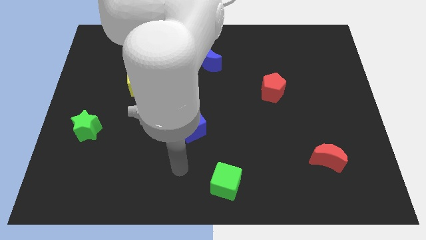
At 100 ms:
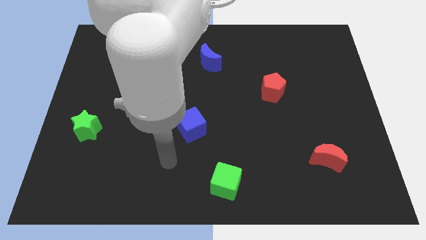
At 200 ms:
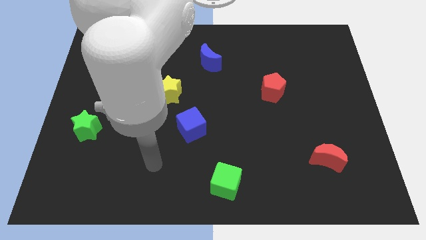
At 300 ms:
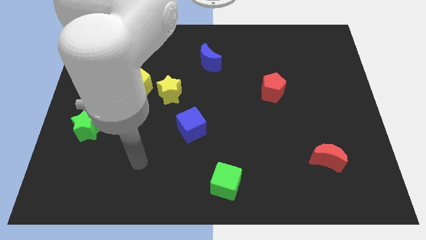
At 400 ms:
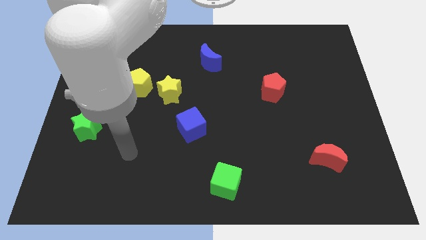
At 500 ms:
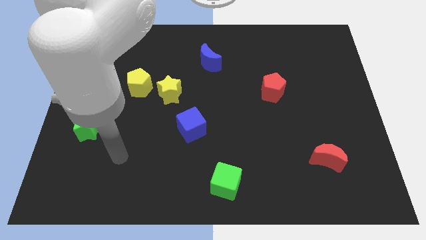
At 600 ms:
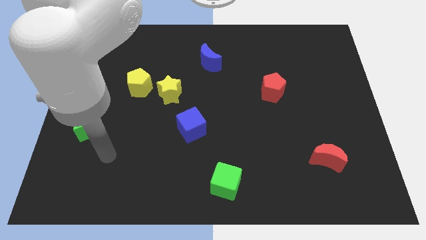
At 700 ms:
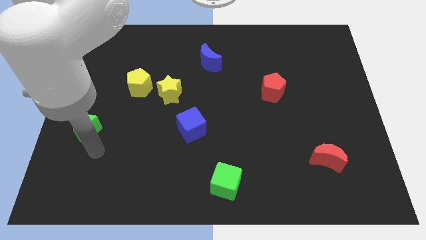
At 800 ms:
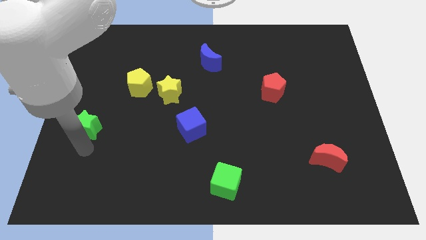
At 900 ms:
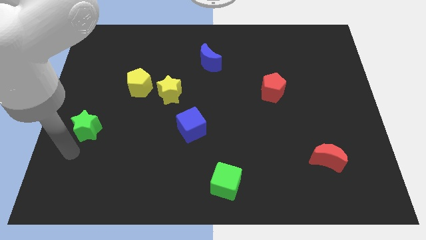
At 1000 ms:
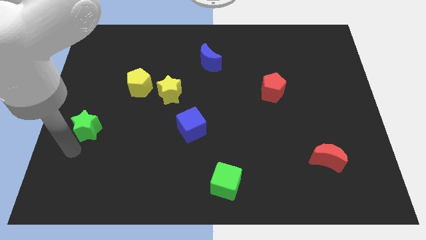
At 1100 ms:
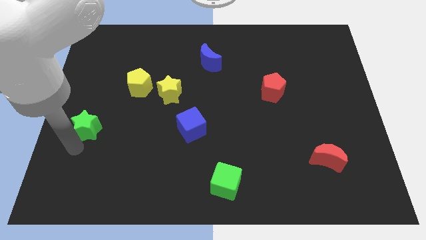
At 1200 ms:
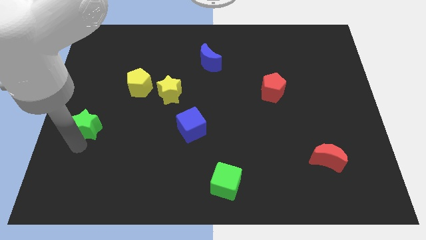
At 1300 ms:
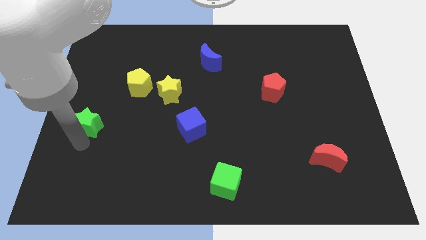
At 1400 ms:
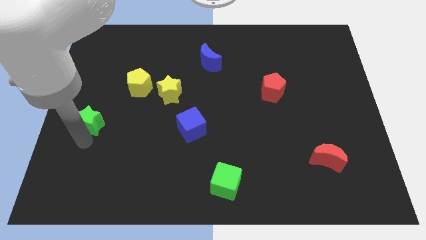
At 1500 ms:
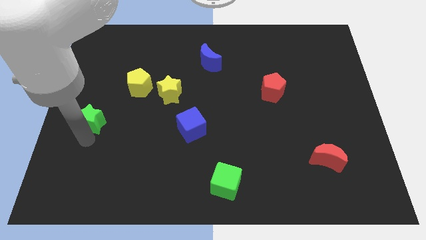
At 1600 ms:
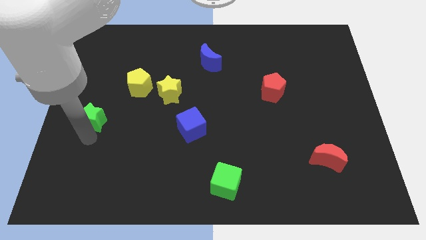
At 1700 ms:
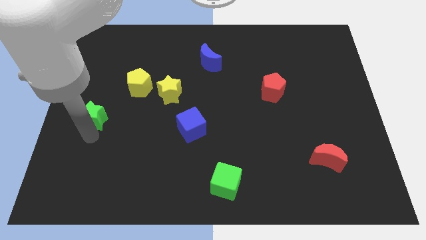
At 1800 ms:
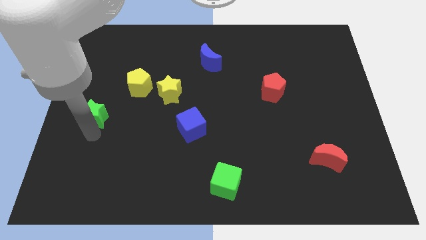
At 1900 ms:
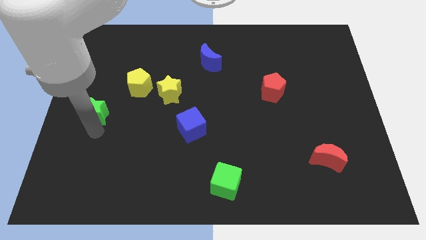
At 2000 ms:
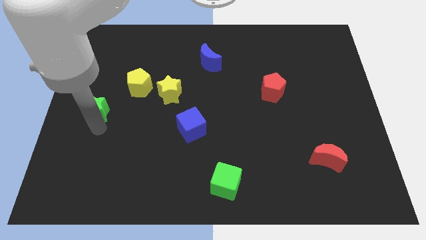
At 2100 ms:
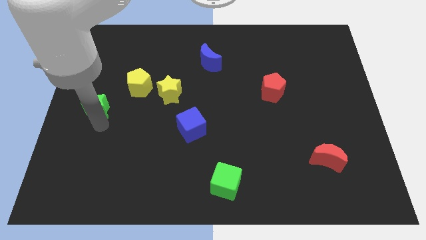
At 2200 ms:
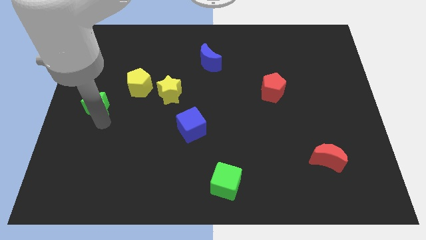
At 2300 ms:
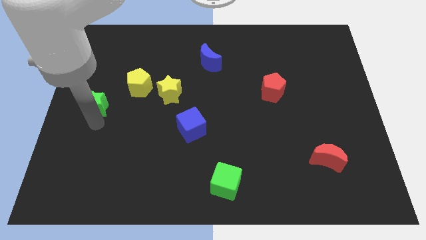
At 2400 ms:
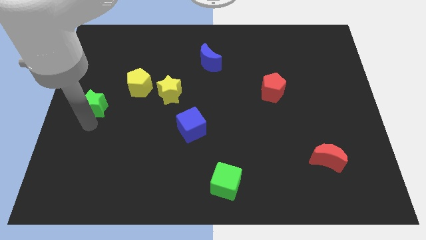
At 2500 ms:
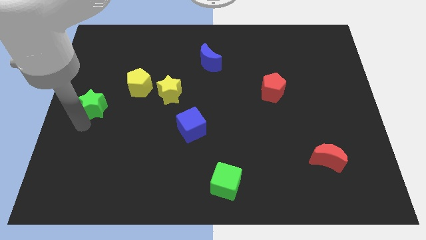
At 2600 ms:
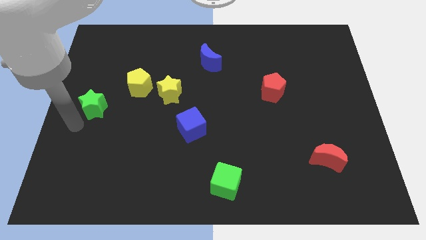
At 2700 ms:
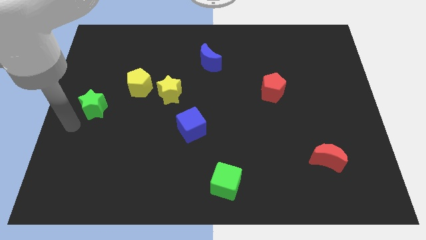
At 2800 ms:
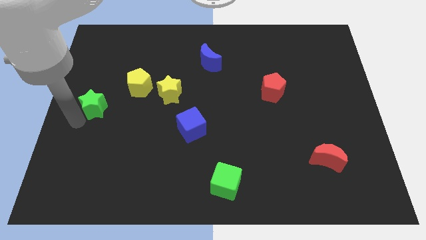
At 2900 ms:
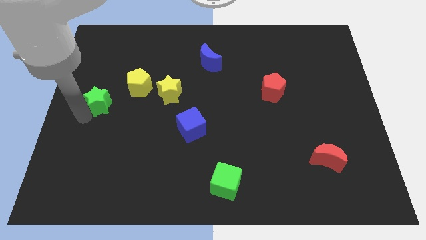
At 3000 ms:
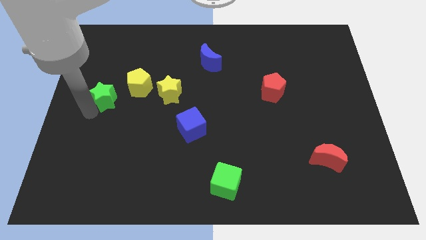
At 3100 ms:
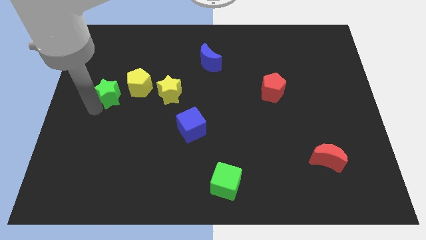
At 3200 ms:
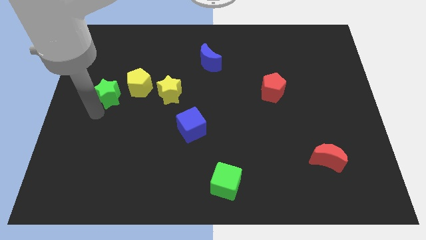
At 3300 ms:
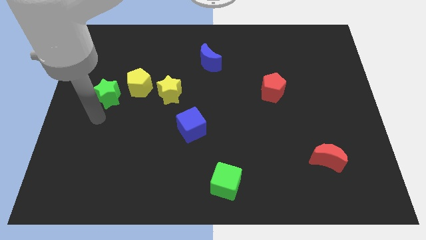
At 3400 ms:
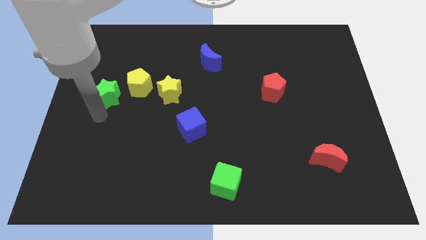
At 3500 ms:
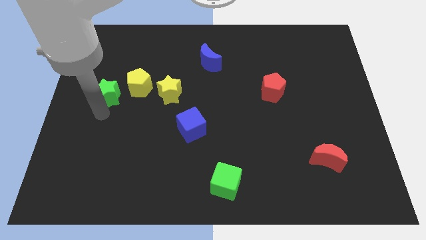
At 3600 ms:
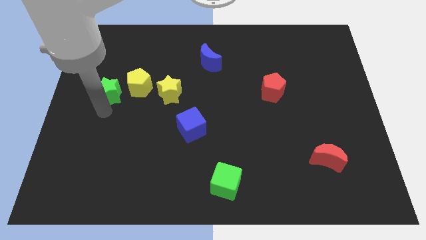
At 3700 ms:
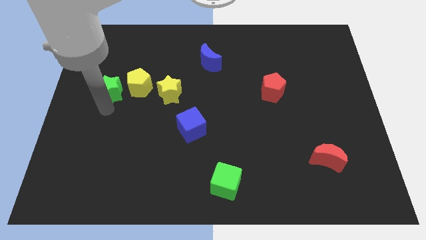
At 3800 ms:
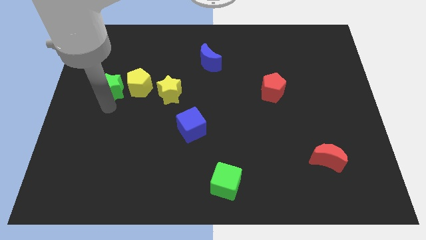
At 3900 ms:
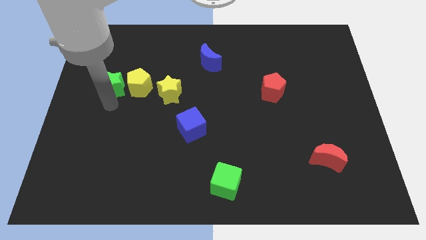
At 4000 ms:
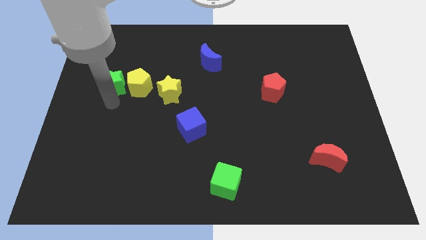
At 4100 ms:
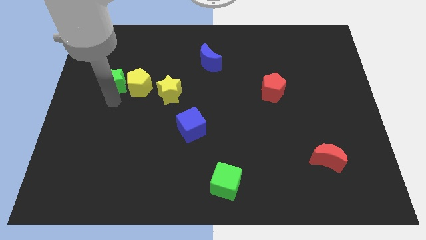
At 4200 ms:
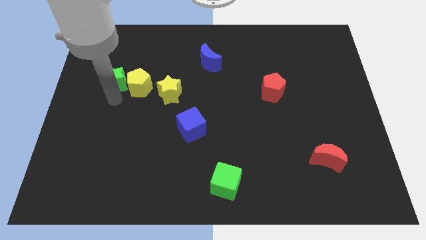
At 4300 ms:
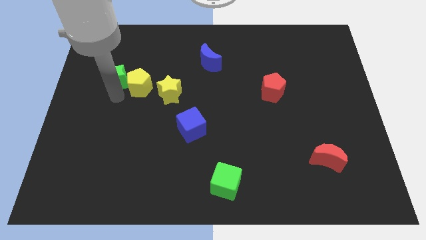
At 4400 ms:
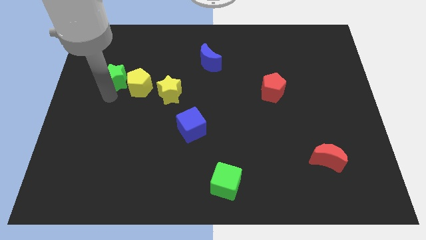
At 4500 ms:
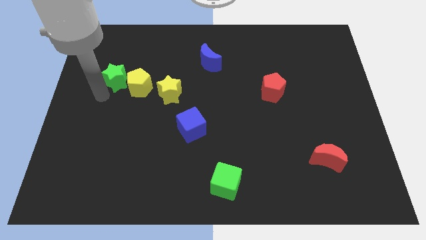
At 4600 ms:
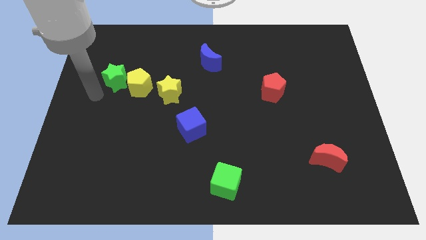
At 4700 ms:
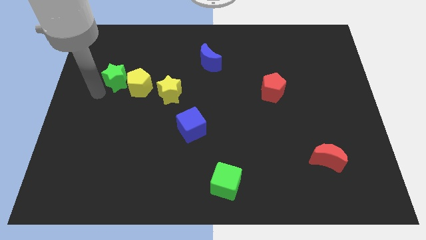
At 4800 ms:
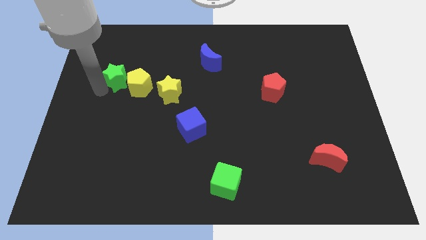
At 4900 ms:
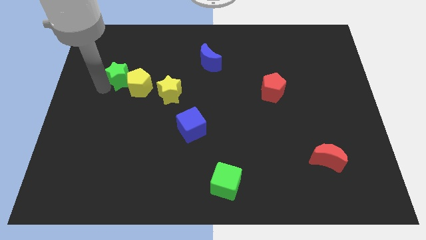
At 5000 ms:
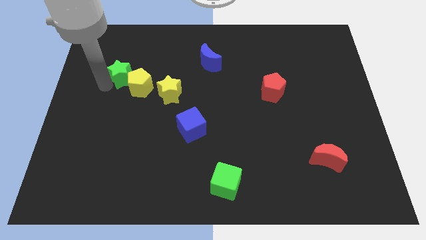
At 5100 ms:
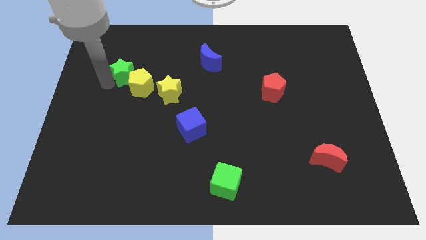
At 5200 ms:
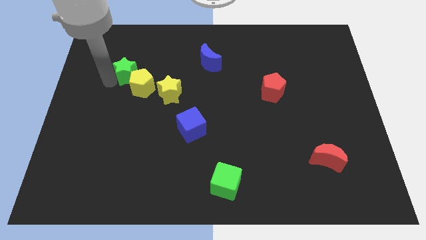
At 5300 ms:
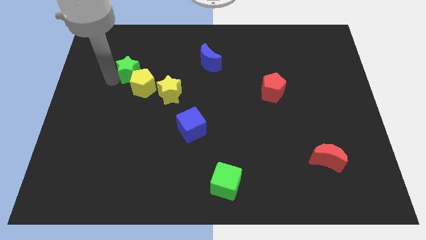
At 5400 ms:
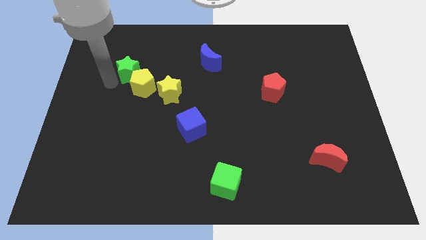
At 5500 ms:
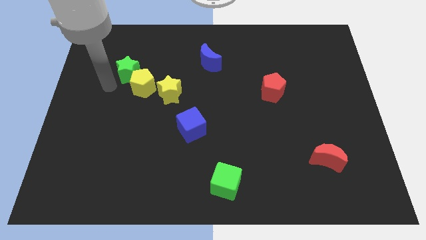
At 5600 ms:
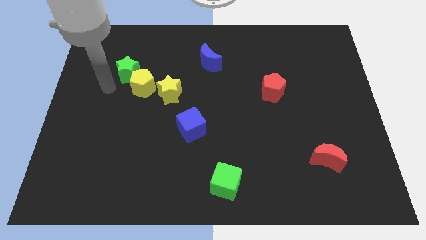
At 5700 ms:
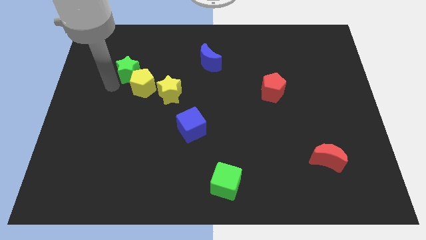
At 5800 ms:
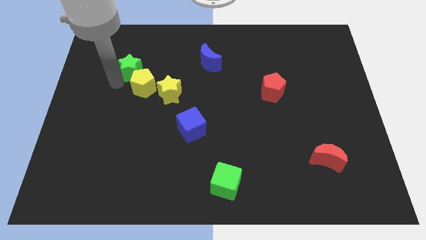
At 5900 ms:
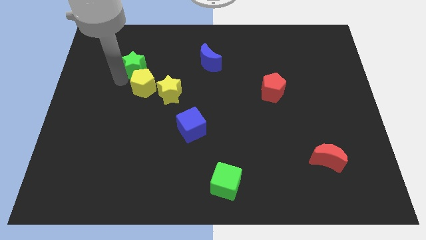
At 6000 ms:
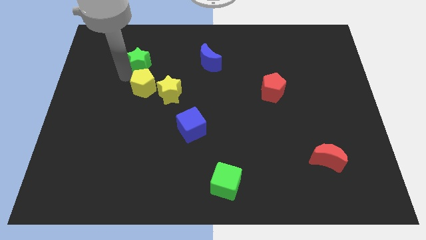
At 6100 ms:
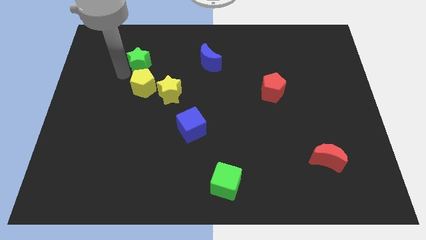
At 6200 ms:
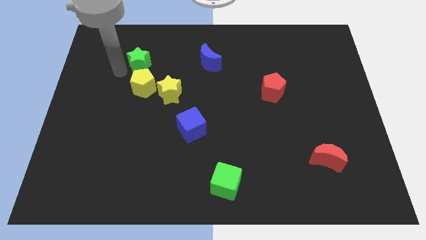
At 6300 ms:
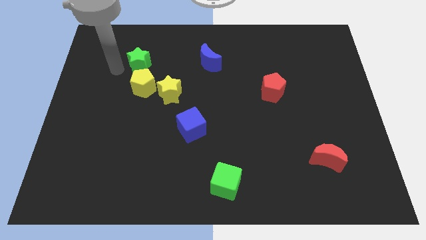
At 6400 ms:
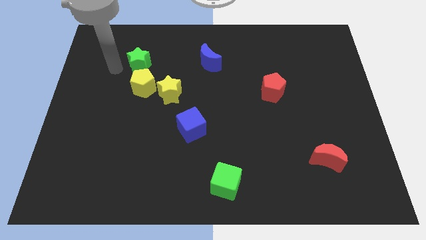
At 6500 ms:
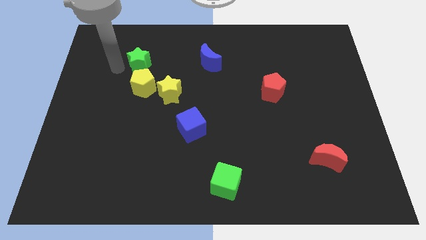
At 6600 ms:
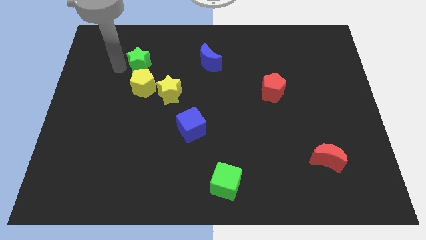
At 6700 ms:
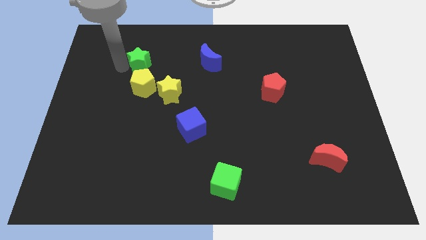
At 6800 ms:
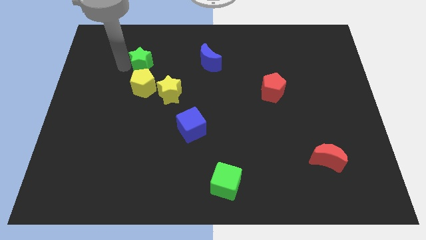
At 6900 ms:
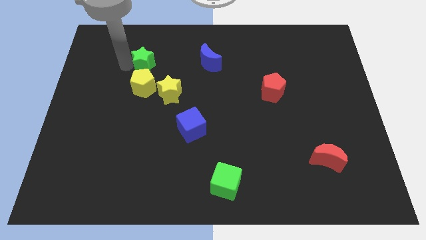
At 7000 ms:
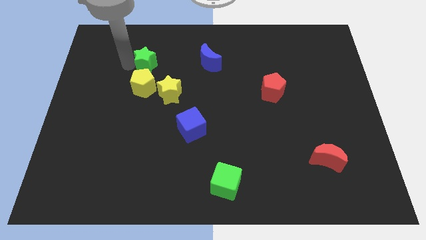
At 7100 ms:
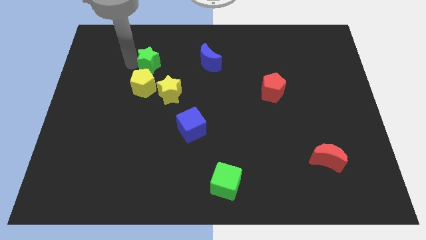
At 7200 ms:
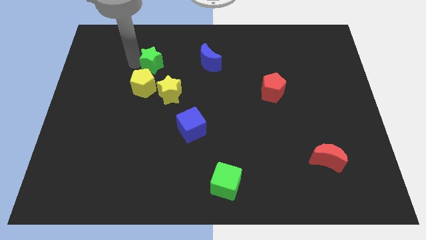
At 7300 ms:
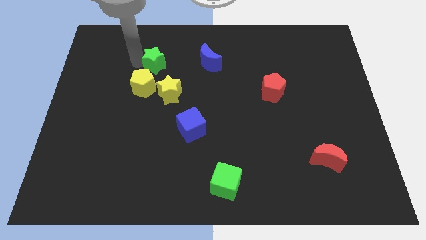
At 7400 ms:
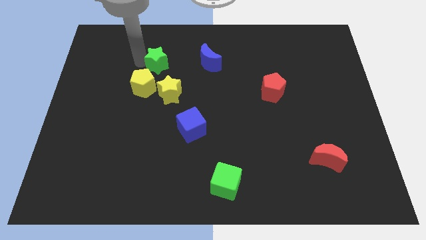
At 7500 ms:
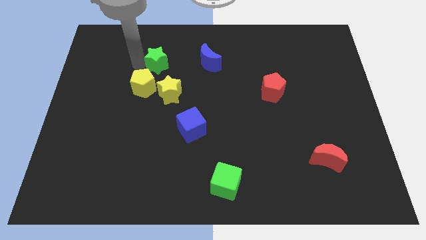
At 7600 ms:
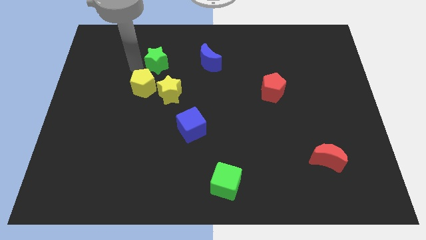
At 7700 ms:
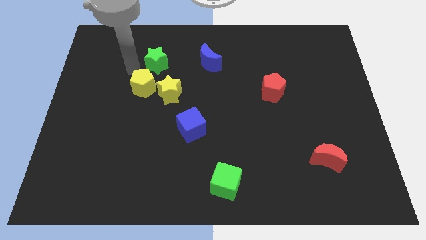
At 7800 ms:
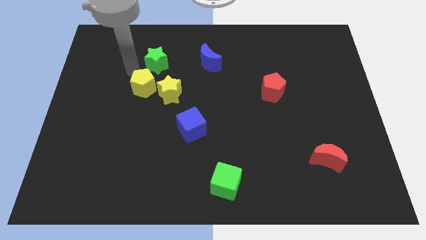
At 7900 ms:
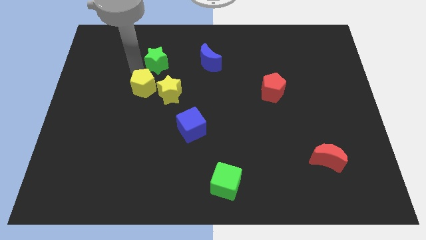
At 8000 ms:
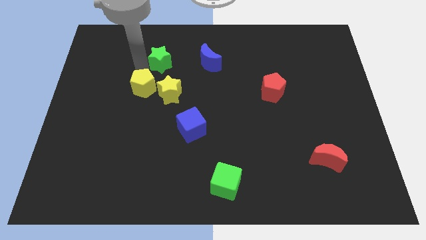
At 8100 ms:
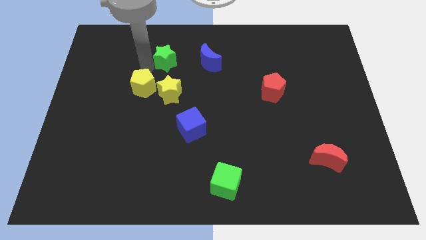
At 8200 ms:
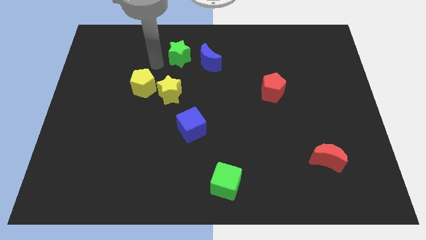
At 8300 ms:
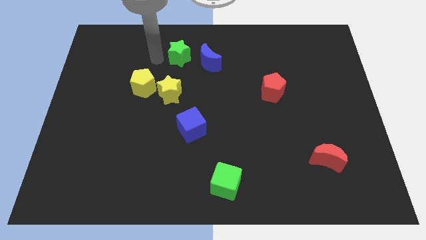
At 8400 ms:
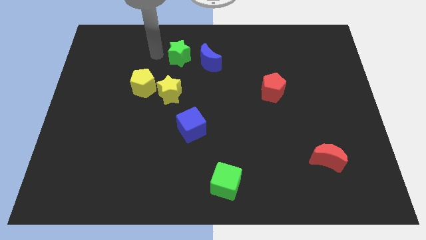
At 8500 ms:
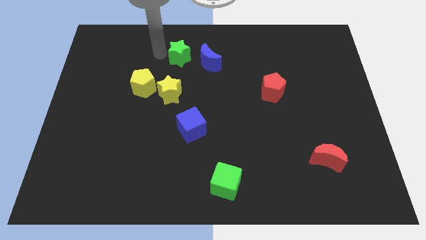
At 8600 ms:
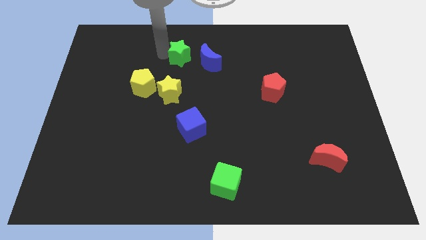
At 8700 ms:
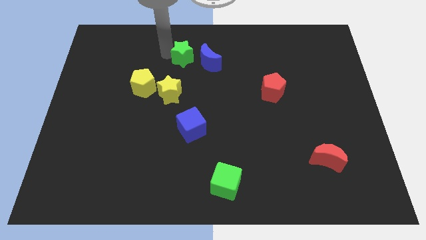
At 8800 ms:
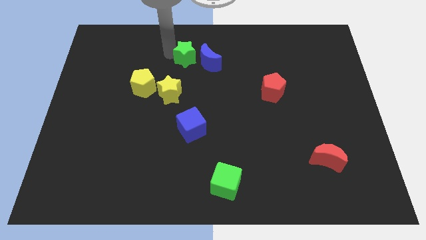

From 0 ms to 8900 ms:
put the green star towards the blue moon
